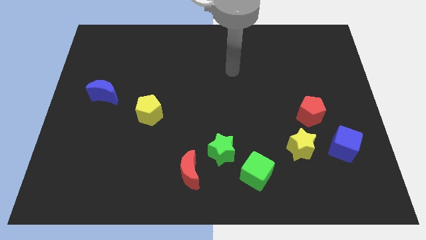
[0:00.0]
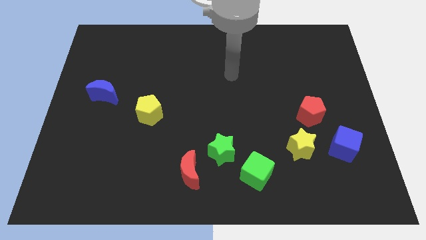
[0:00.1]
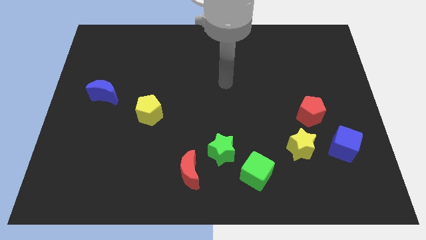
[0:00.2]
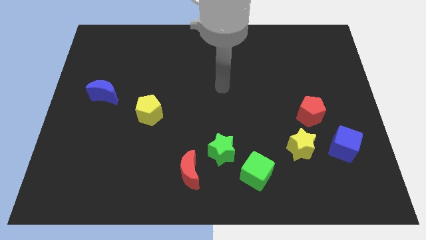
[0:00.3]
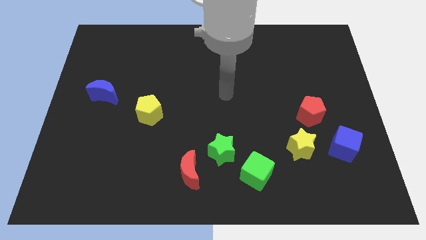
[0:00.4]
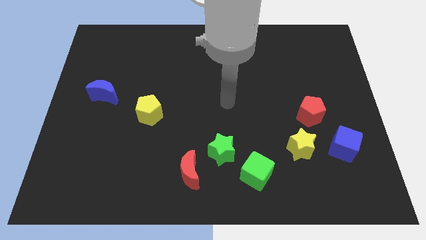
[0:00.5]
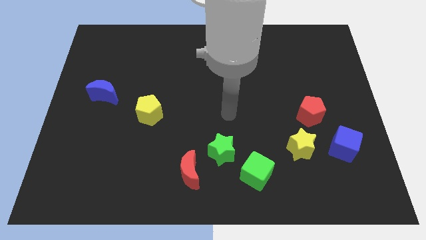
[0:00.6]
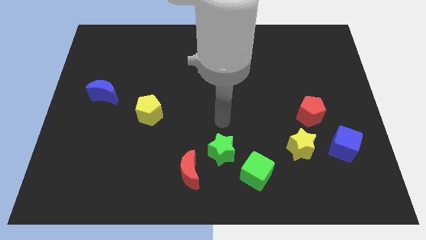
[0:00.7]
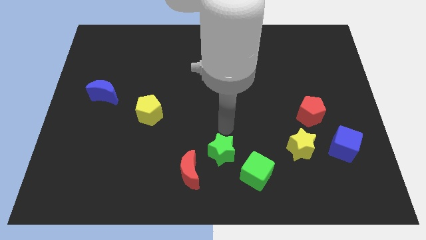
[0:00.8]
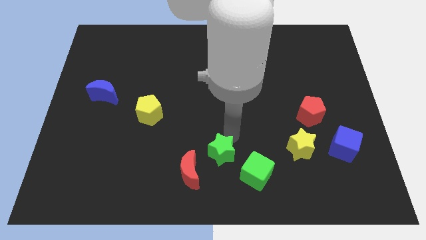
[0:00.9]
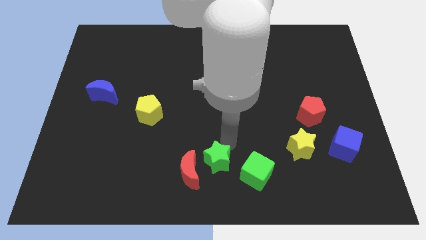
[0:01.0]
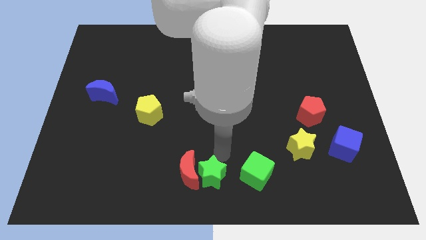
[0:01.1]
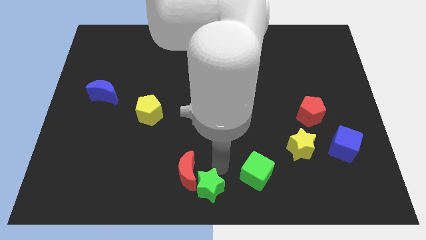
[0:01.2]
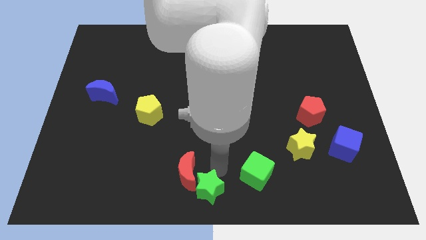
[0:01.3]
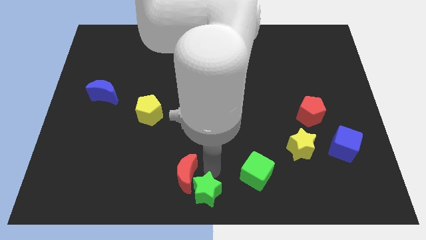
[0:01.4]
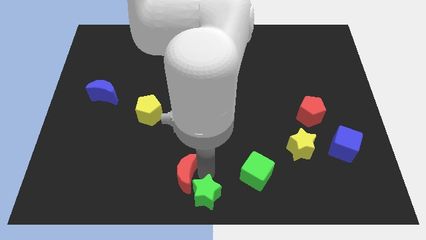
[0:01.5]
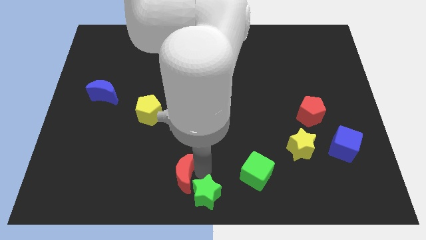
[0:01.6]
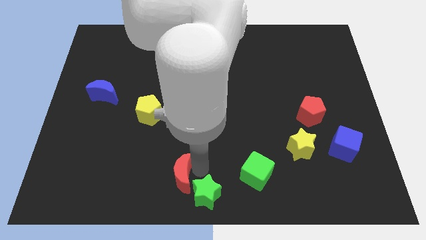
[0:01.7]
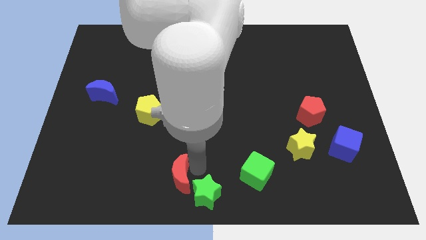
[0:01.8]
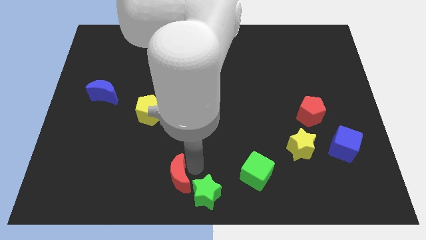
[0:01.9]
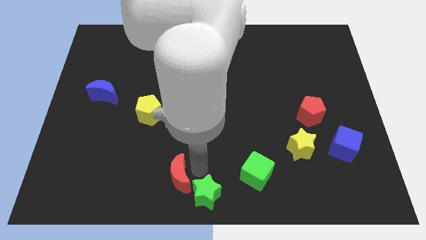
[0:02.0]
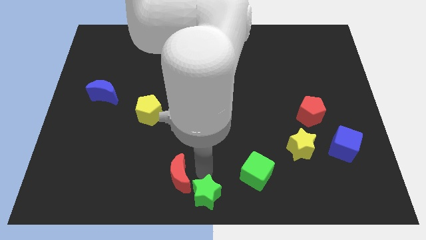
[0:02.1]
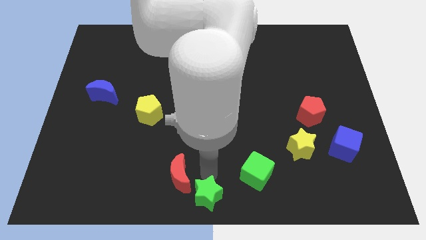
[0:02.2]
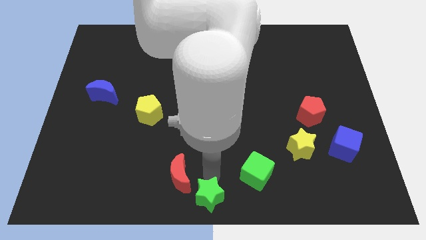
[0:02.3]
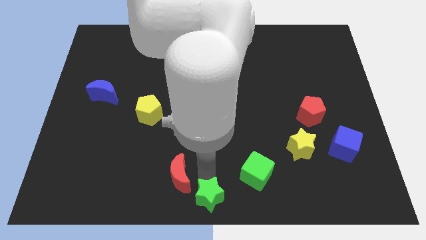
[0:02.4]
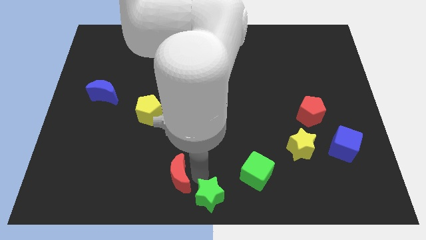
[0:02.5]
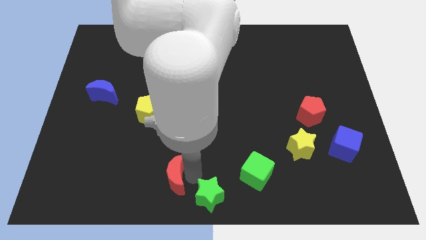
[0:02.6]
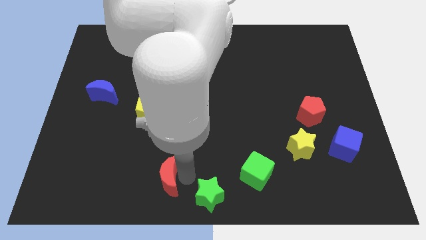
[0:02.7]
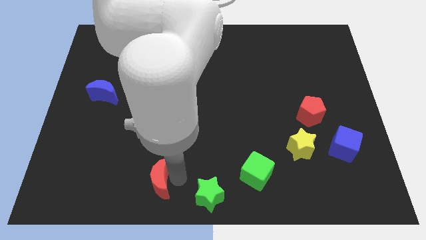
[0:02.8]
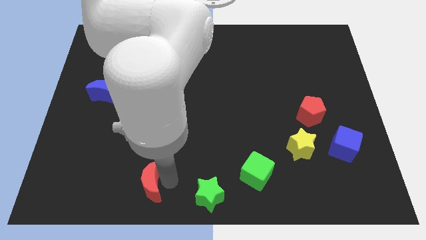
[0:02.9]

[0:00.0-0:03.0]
slide the red moon left somewhat

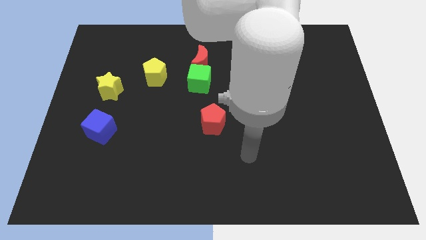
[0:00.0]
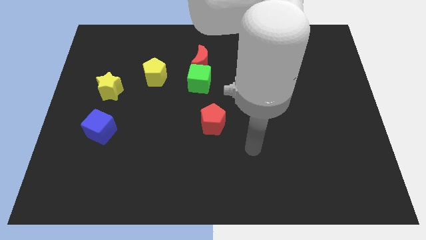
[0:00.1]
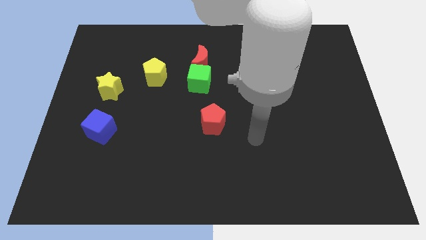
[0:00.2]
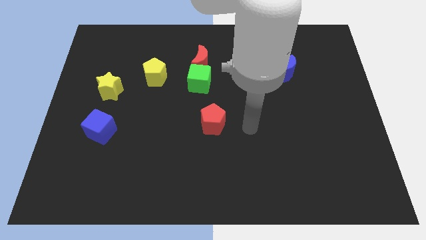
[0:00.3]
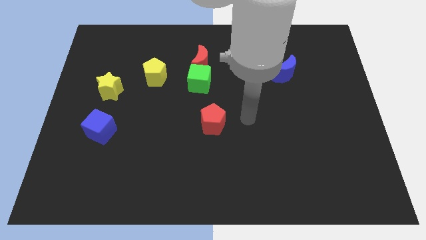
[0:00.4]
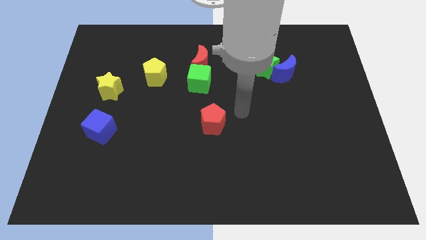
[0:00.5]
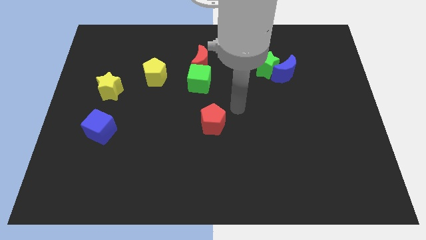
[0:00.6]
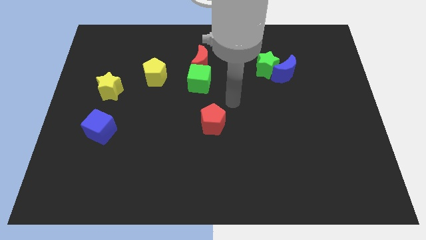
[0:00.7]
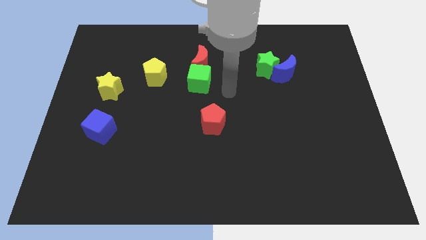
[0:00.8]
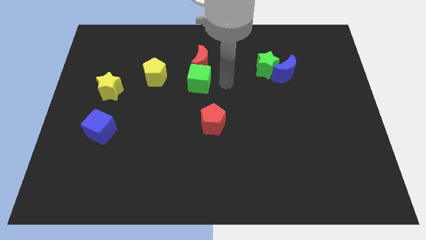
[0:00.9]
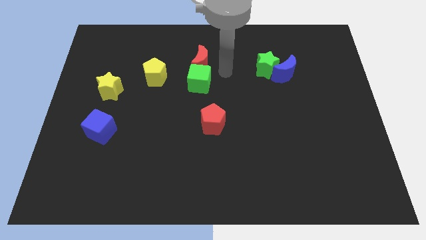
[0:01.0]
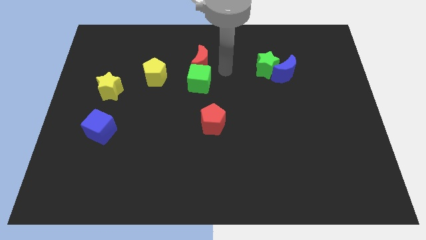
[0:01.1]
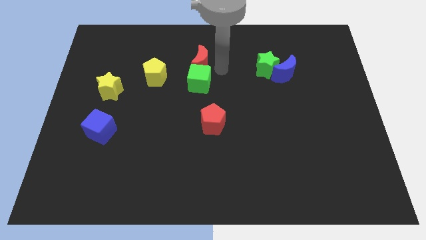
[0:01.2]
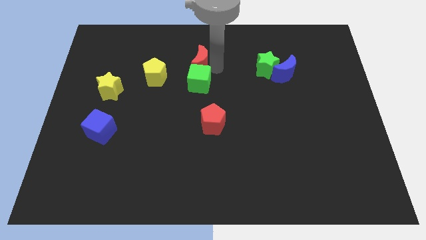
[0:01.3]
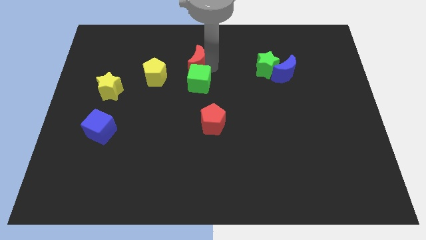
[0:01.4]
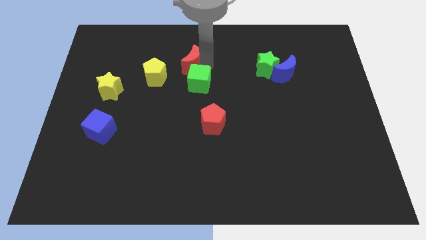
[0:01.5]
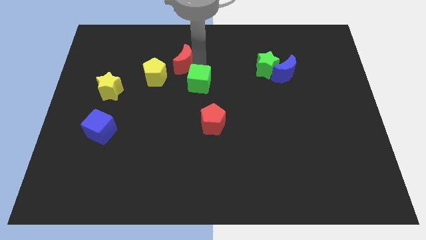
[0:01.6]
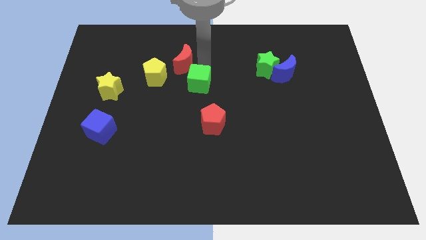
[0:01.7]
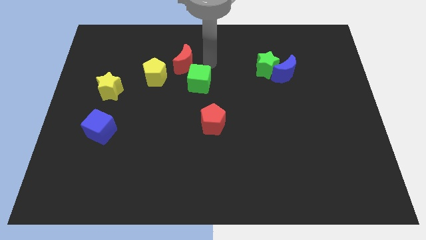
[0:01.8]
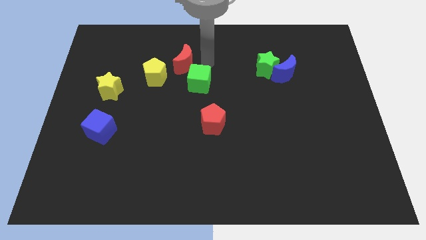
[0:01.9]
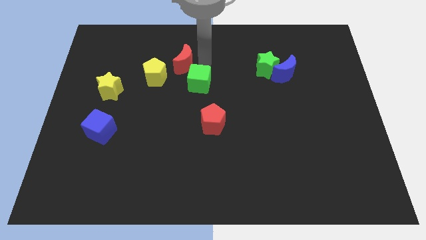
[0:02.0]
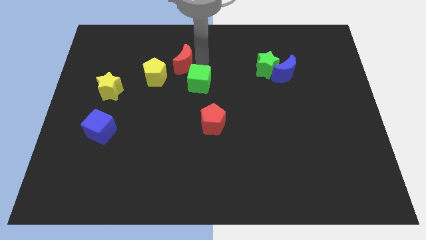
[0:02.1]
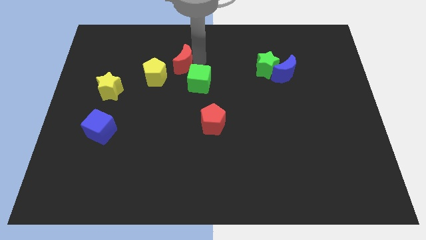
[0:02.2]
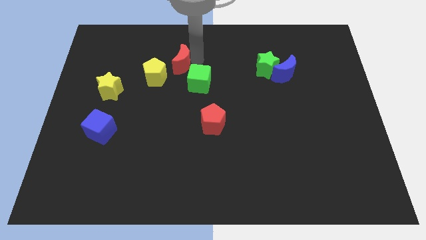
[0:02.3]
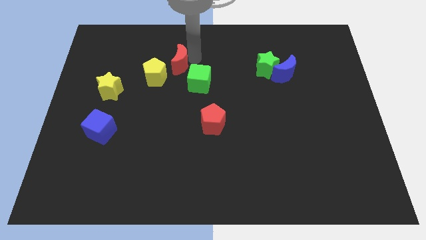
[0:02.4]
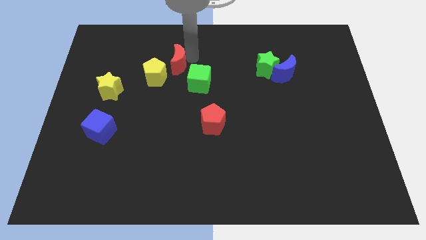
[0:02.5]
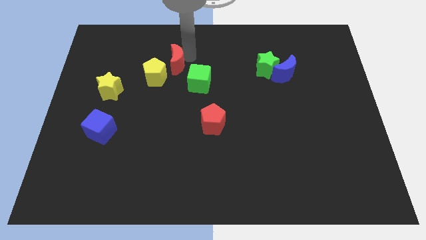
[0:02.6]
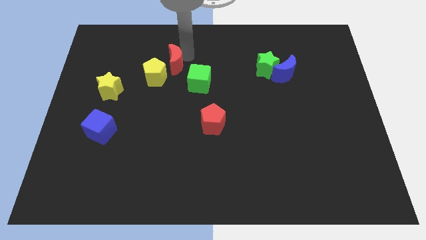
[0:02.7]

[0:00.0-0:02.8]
slide the red moon somewhat left

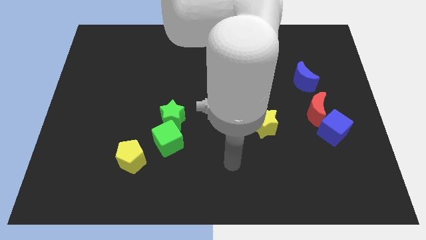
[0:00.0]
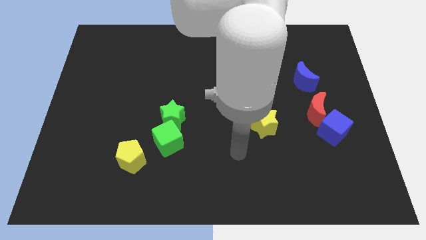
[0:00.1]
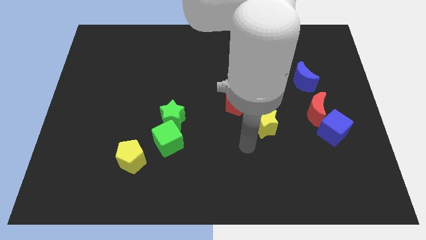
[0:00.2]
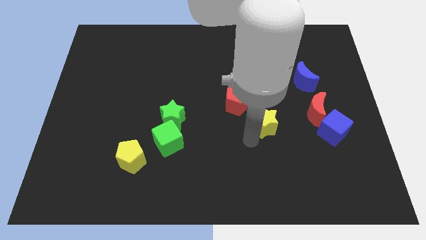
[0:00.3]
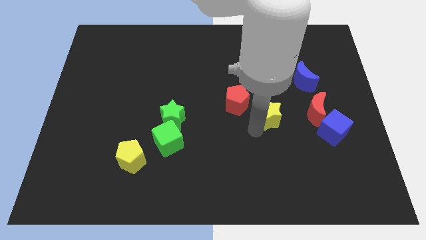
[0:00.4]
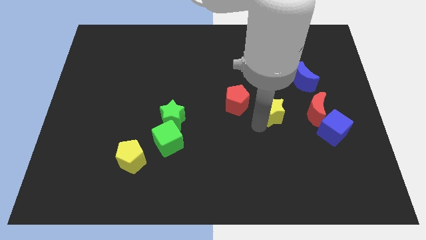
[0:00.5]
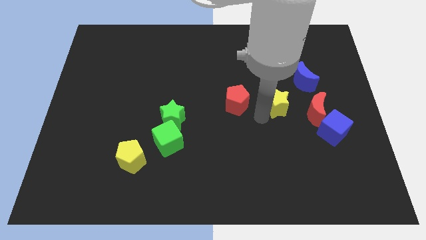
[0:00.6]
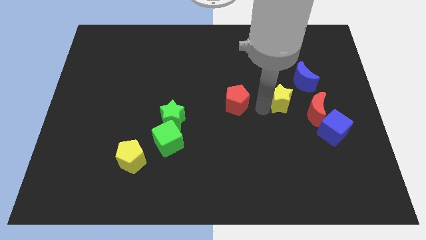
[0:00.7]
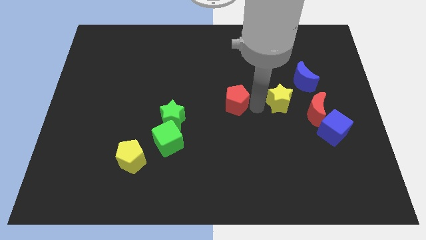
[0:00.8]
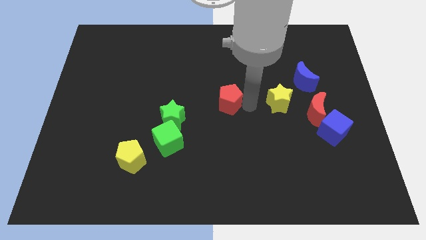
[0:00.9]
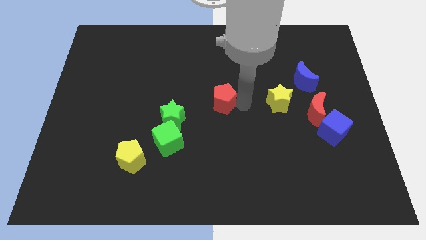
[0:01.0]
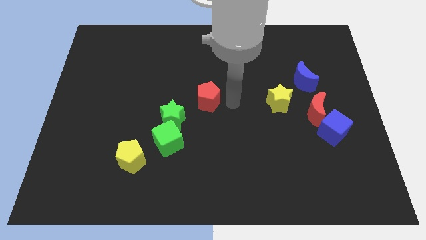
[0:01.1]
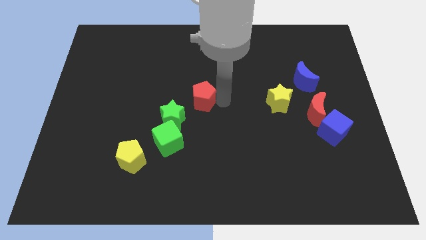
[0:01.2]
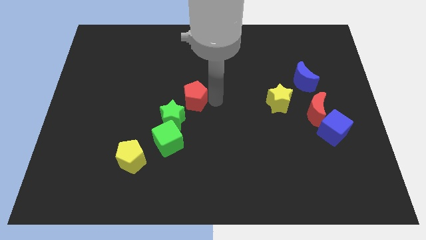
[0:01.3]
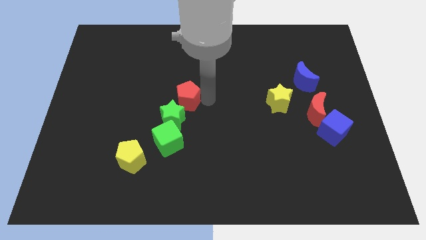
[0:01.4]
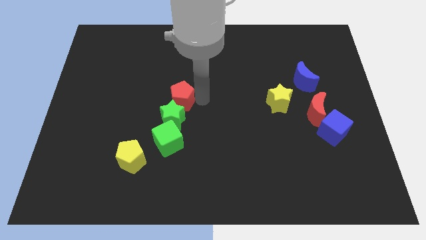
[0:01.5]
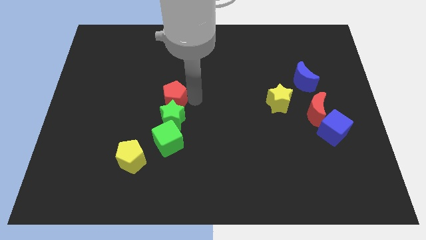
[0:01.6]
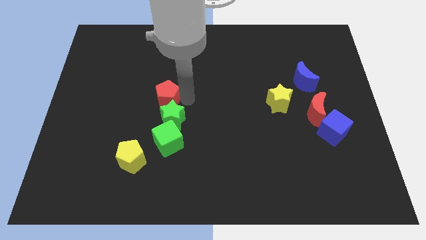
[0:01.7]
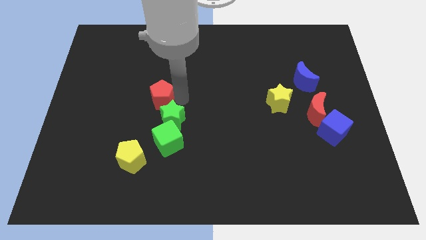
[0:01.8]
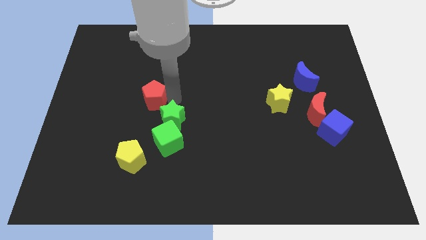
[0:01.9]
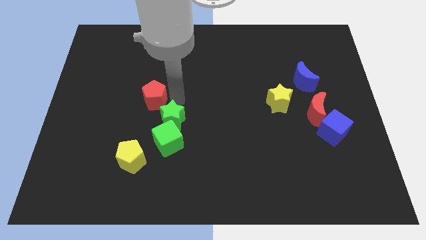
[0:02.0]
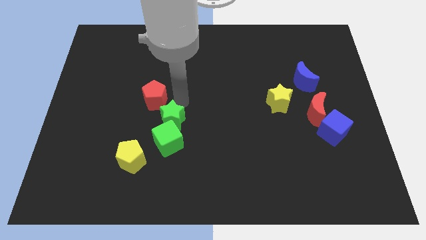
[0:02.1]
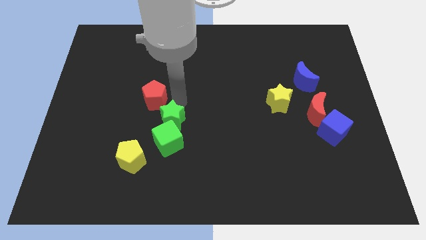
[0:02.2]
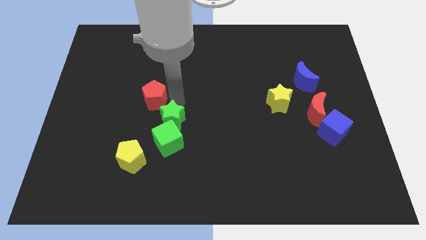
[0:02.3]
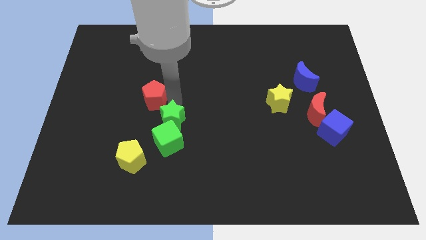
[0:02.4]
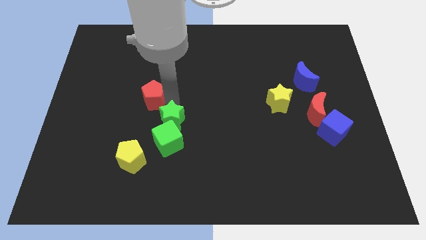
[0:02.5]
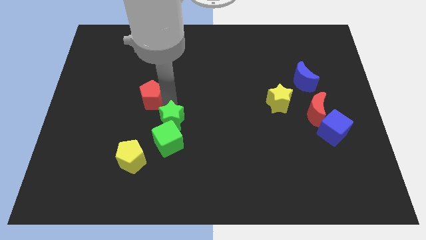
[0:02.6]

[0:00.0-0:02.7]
slide the red pentagon to the left
